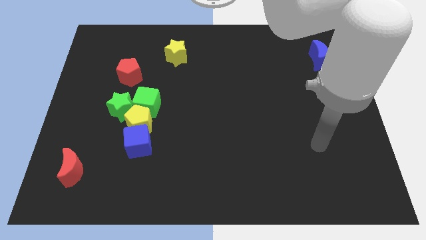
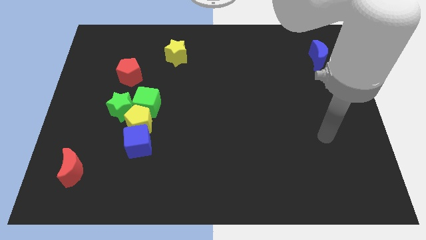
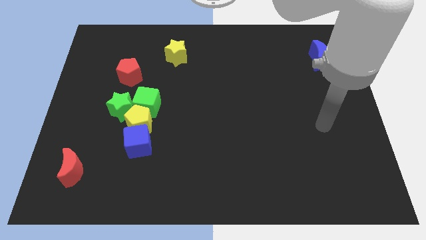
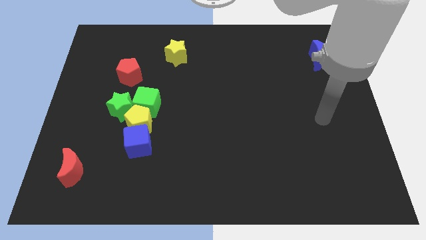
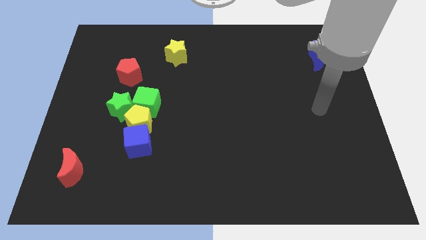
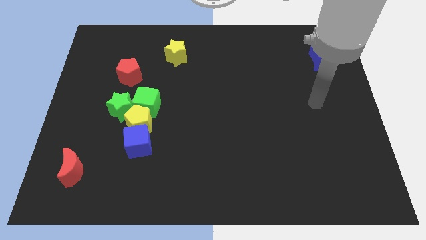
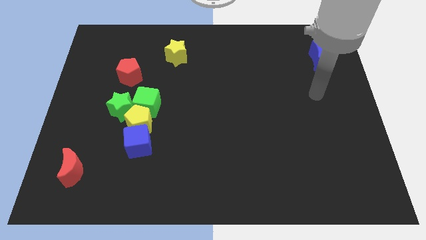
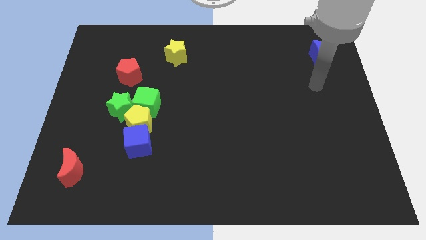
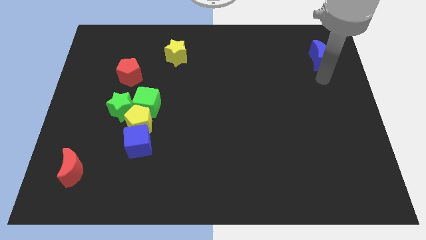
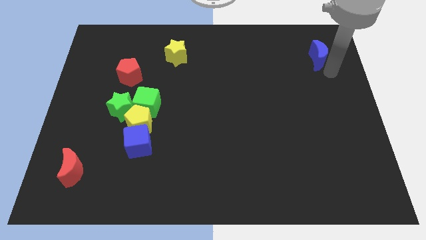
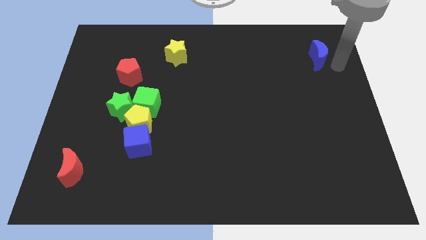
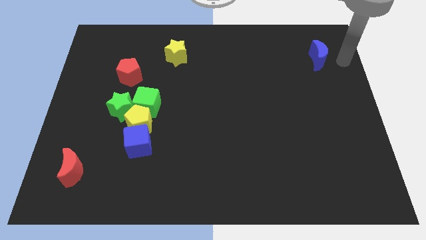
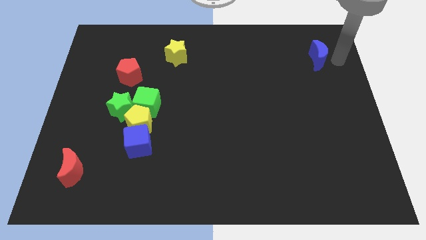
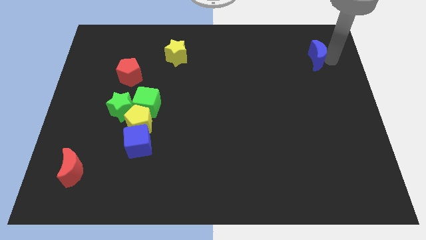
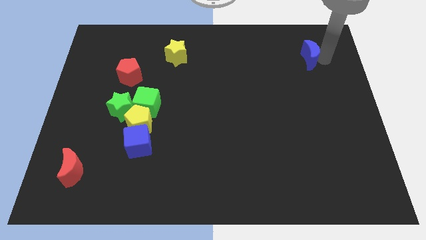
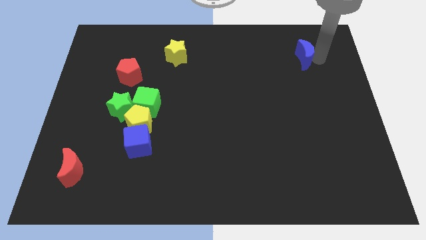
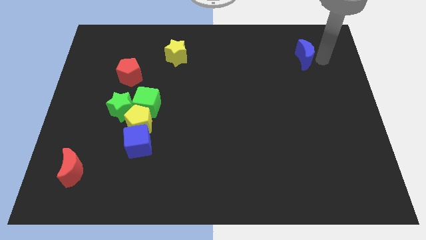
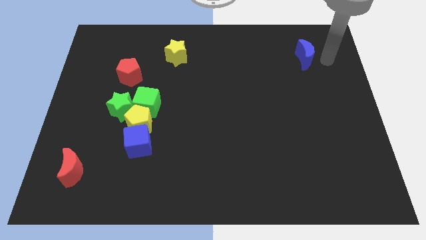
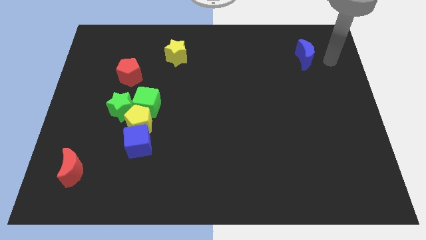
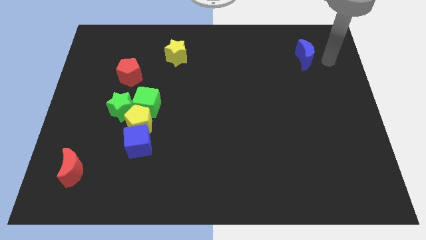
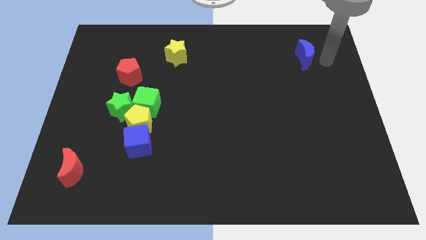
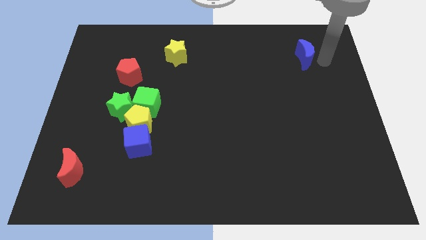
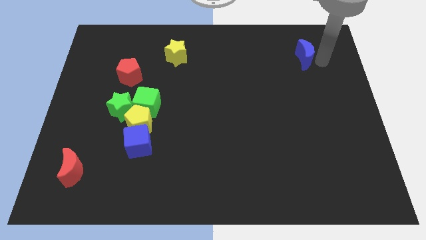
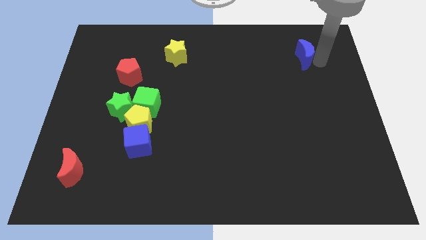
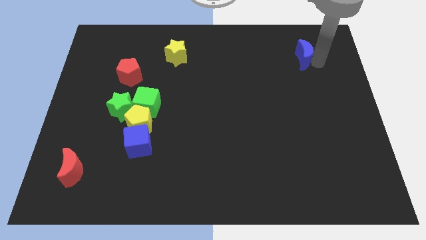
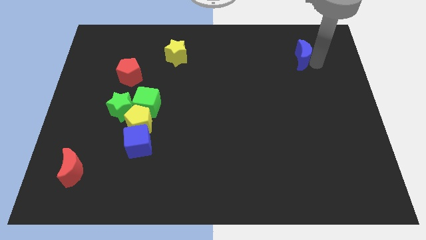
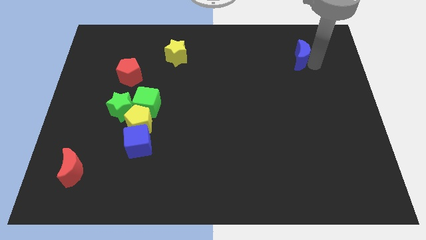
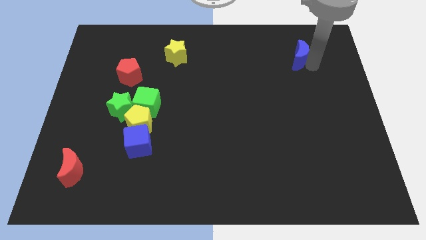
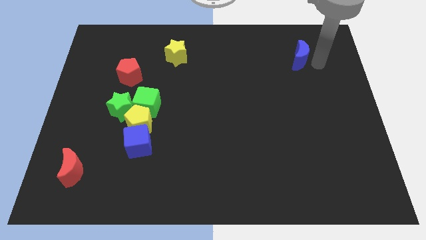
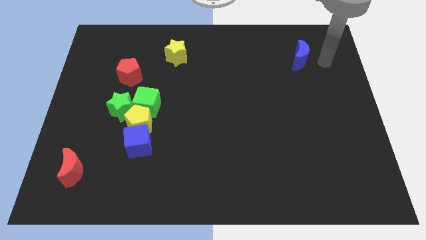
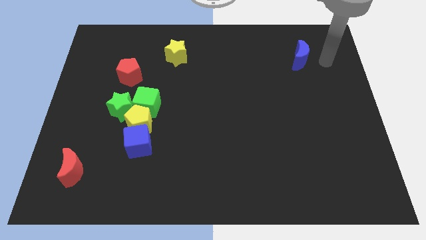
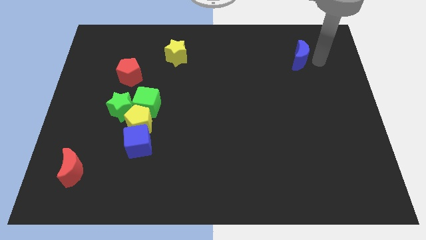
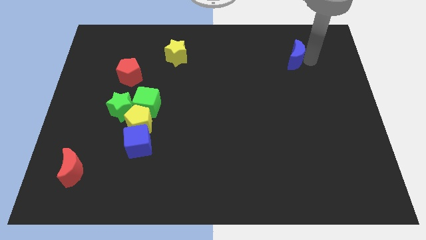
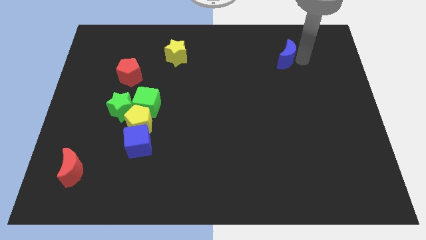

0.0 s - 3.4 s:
slightly push the blue moon left

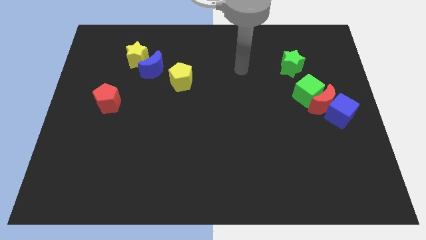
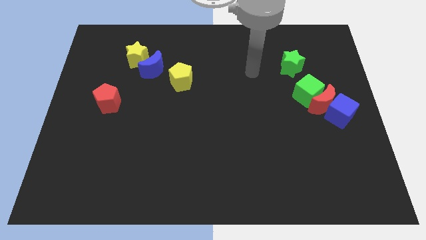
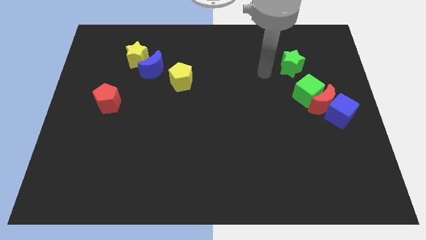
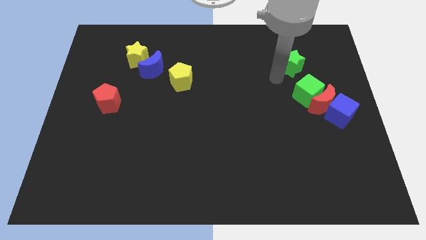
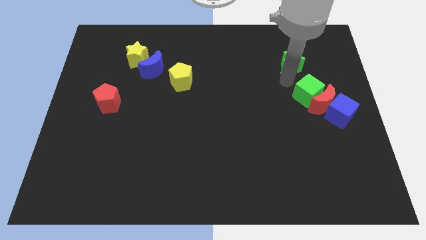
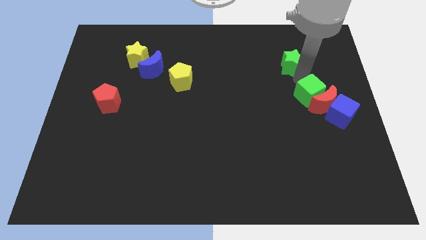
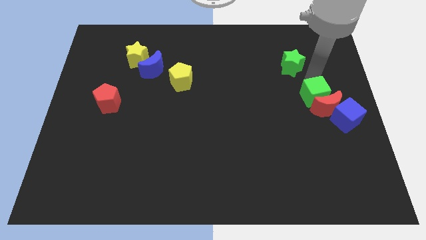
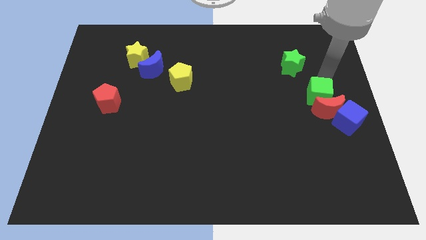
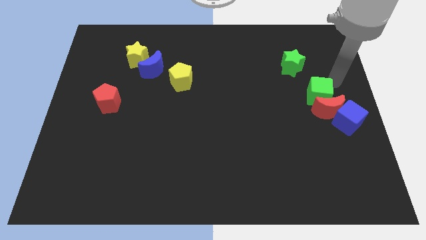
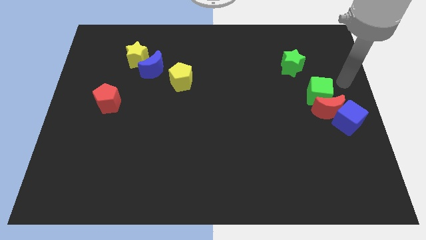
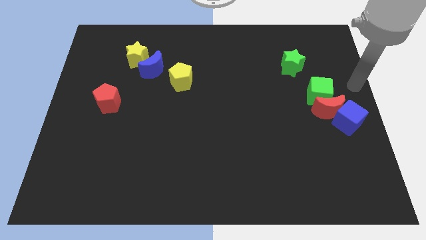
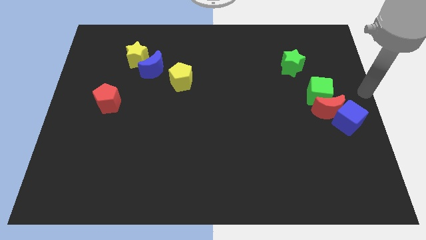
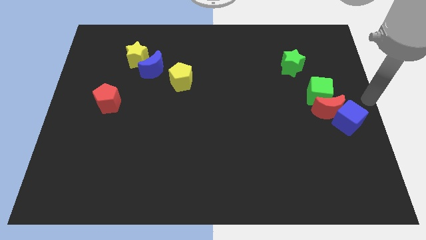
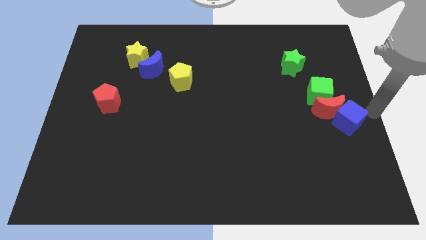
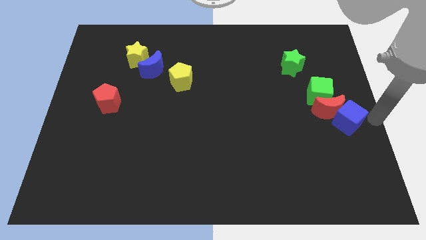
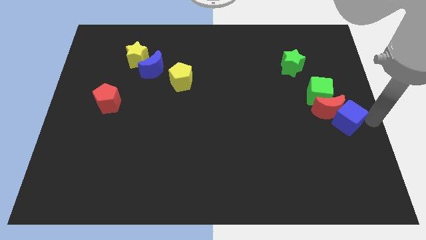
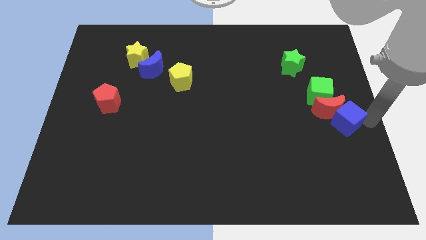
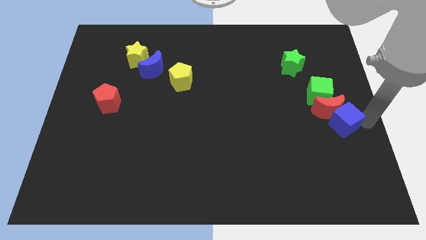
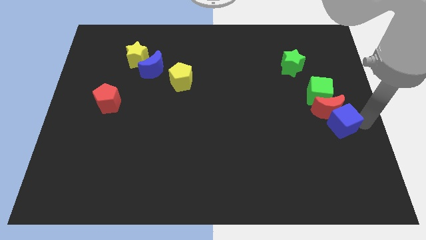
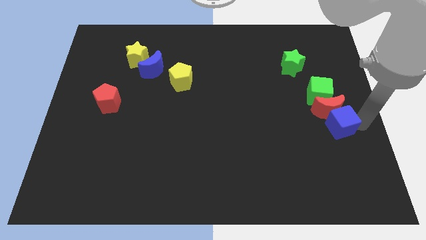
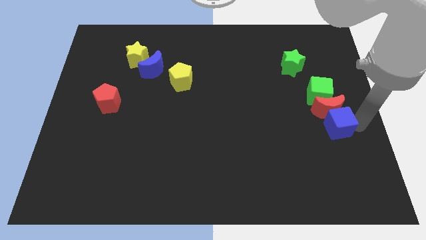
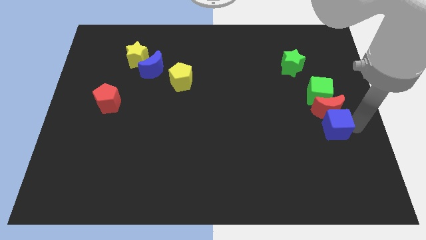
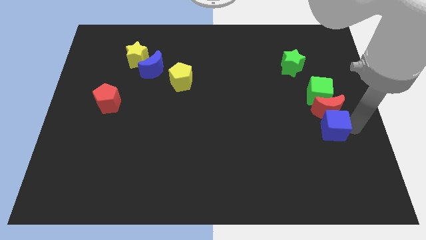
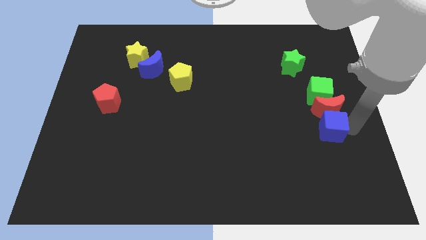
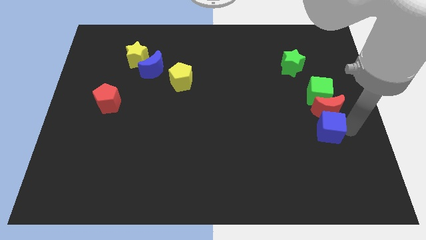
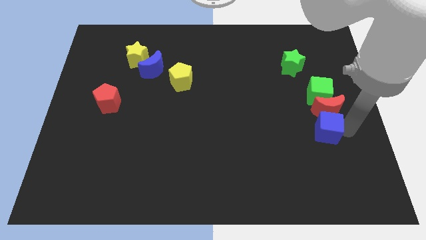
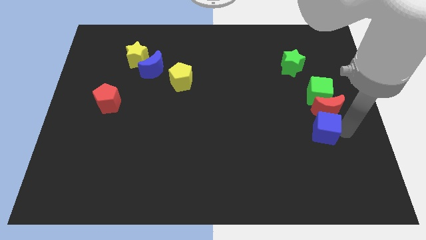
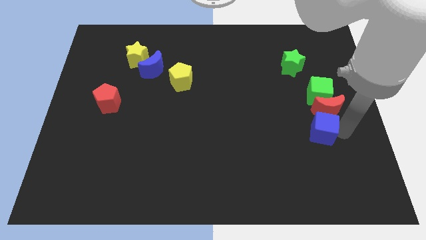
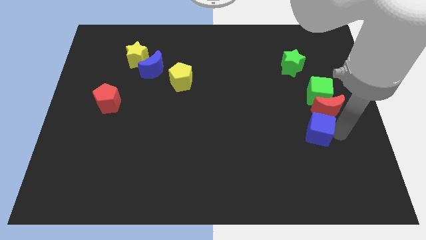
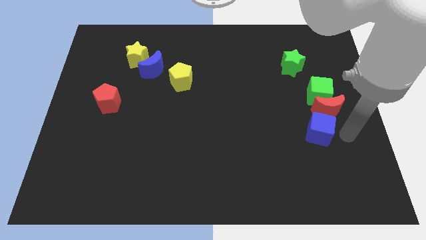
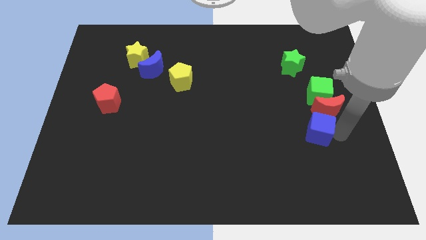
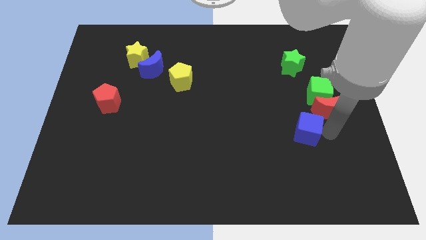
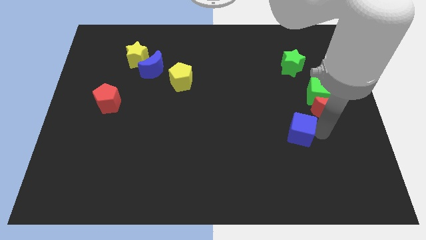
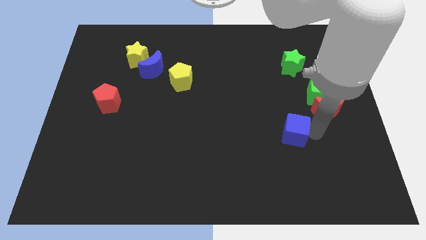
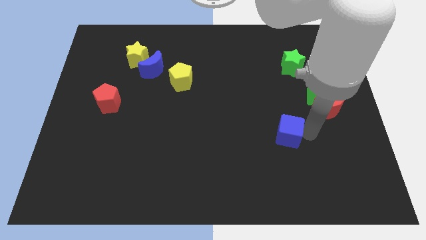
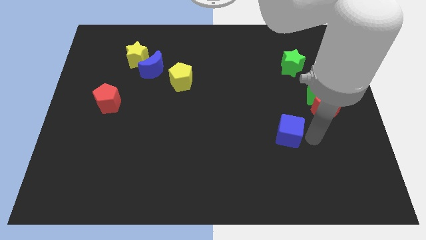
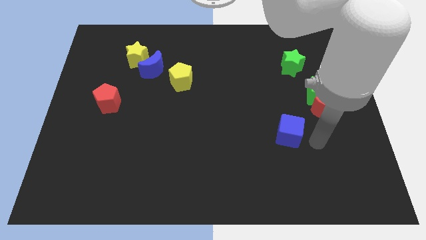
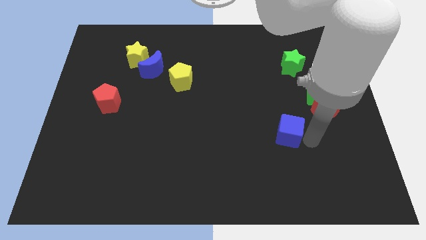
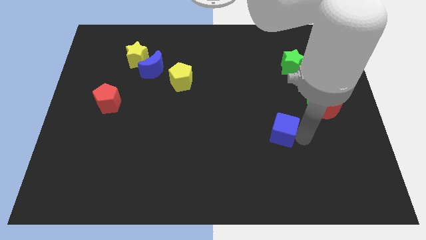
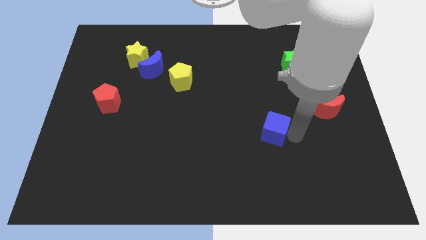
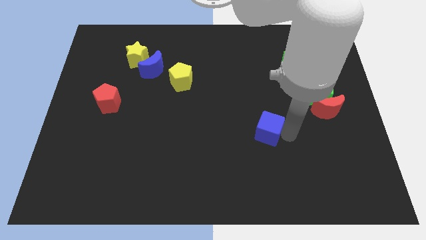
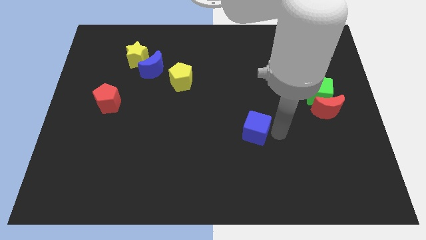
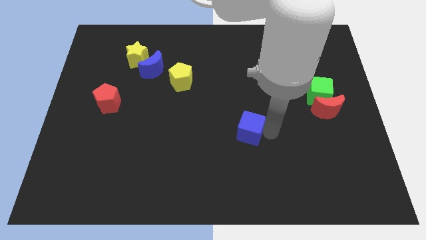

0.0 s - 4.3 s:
move the blue cube to the left

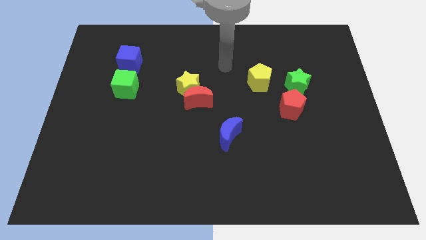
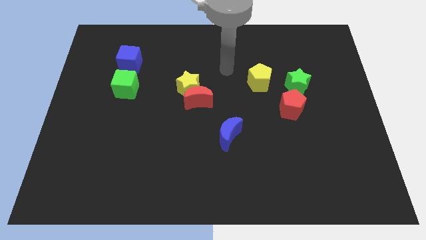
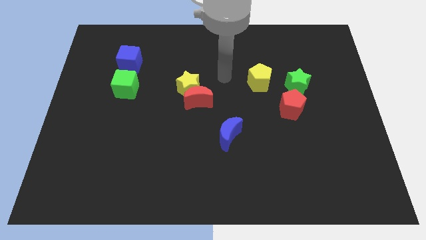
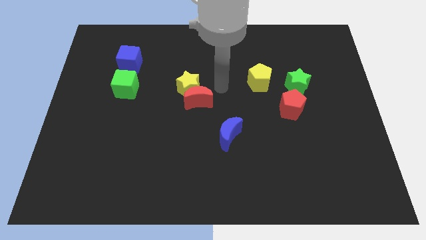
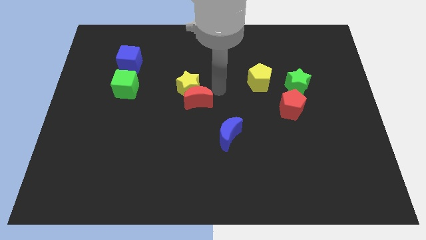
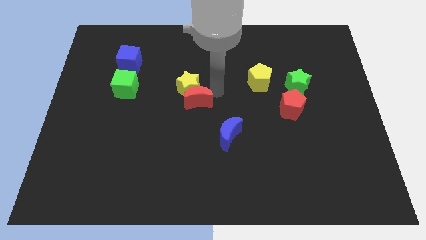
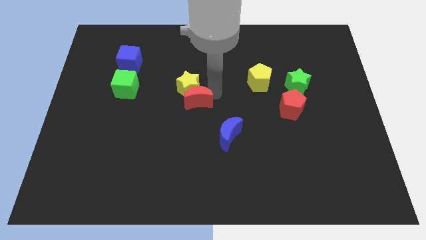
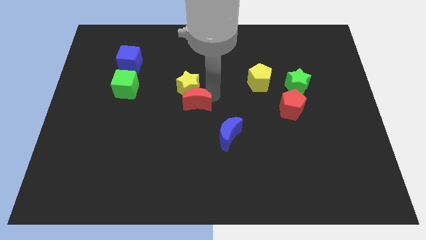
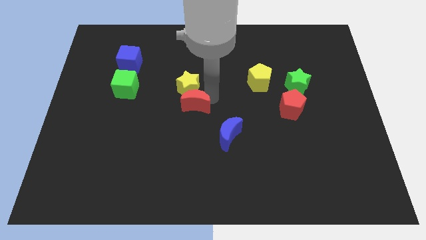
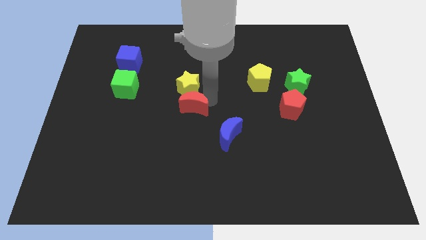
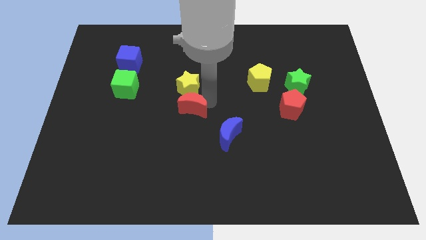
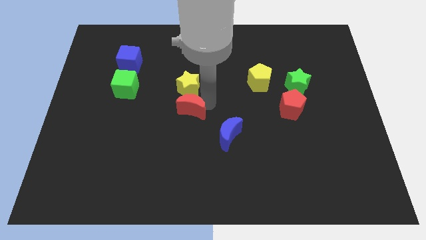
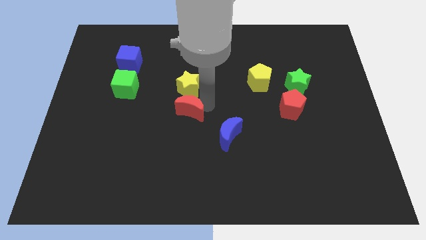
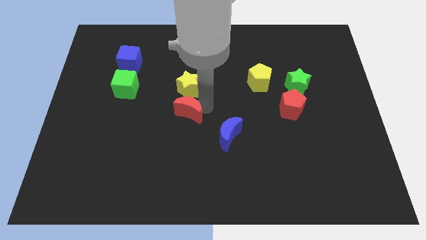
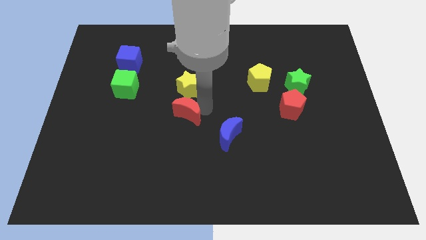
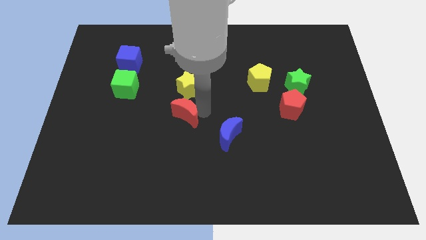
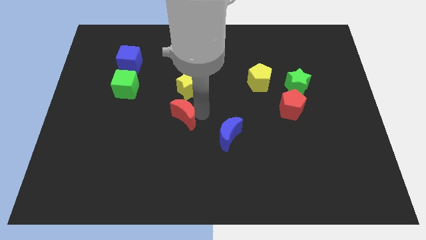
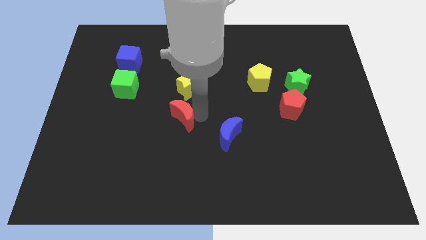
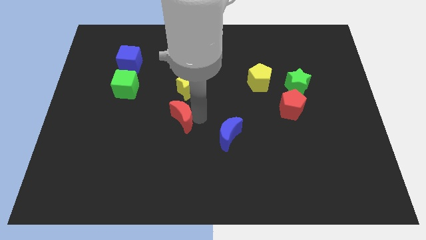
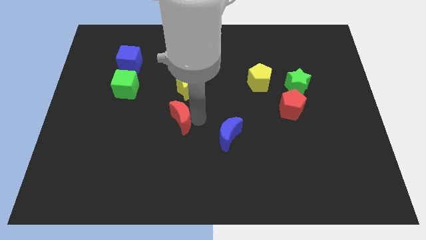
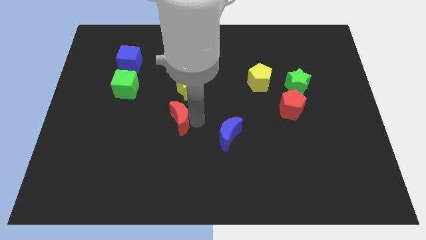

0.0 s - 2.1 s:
slightly slide the red moon down and then left
